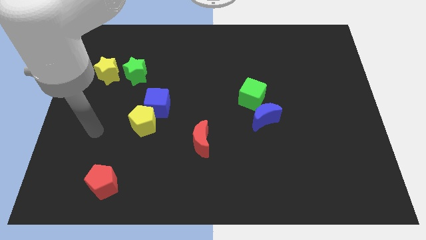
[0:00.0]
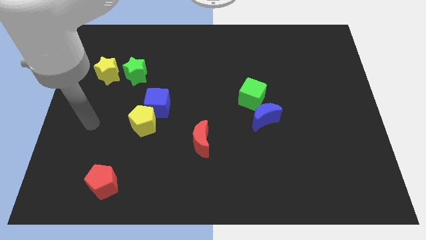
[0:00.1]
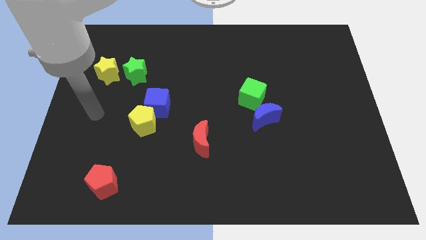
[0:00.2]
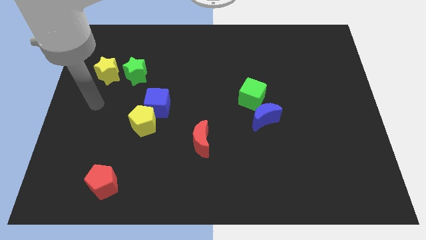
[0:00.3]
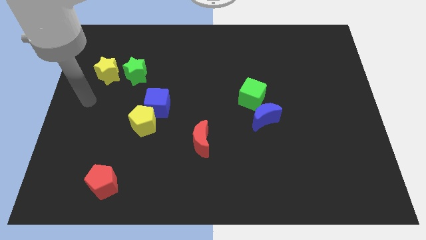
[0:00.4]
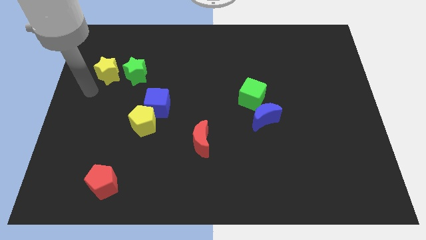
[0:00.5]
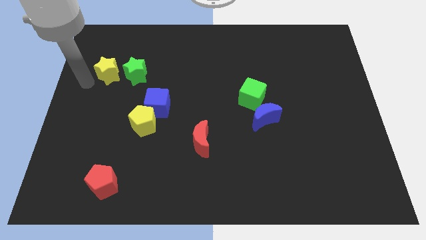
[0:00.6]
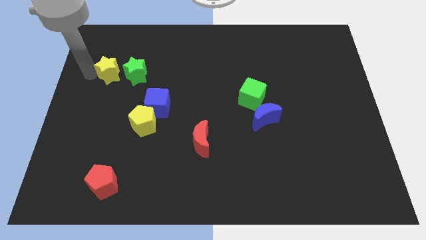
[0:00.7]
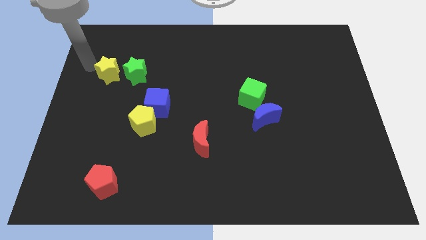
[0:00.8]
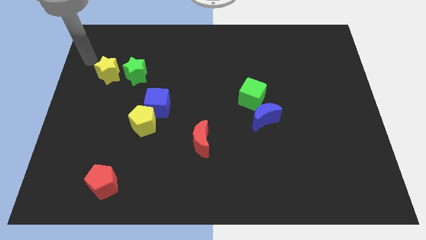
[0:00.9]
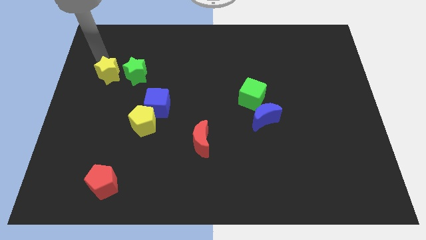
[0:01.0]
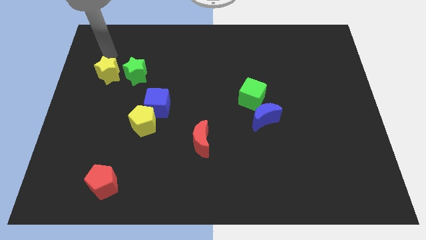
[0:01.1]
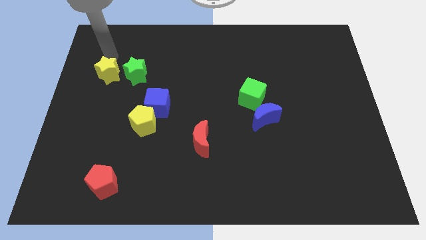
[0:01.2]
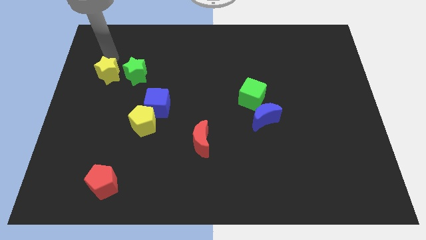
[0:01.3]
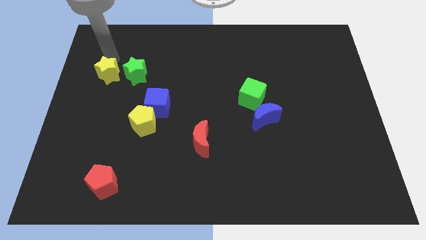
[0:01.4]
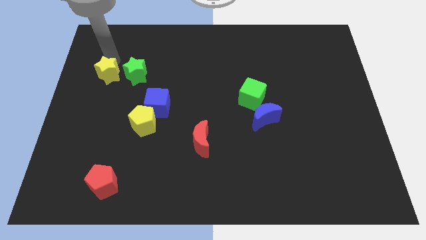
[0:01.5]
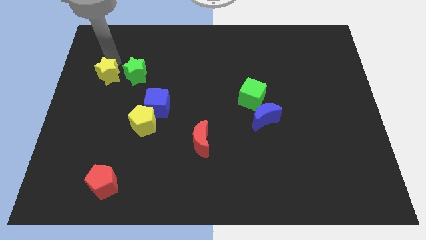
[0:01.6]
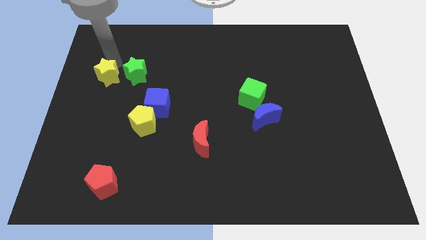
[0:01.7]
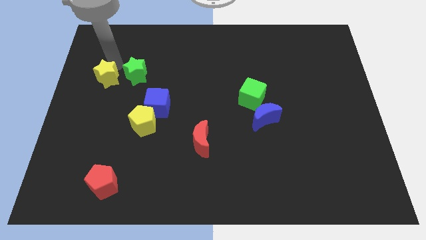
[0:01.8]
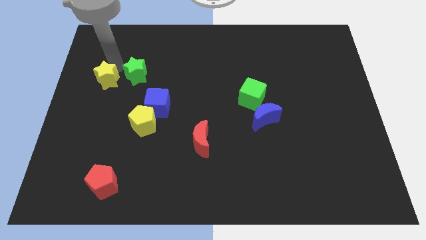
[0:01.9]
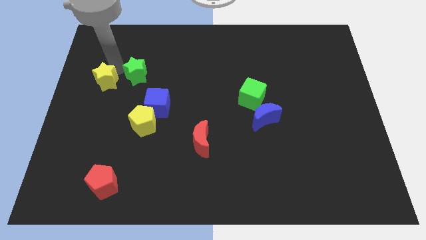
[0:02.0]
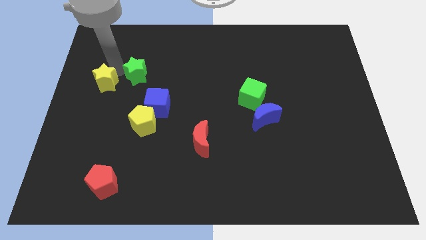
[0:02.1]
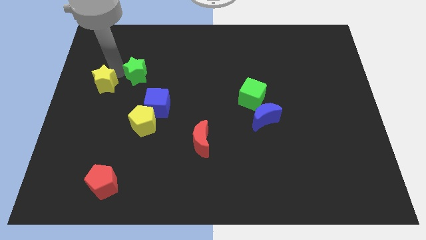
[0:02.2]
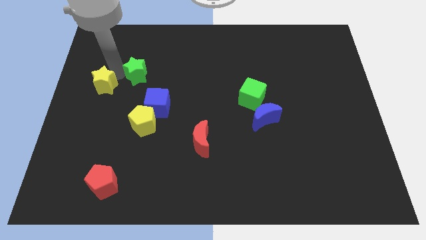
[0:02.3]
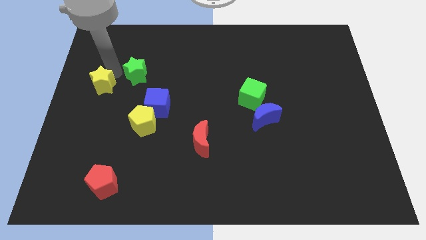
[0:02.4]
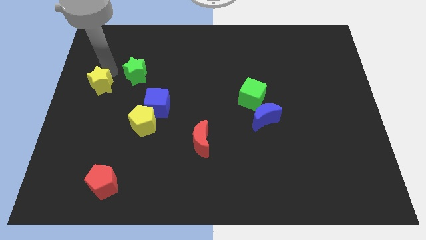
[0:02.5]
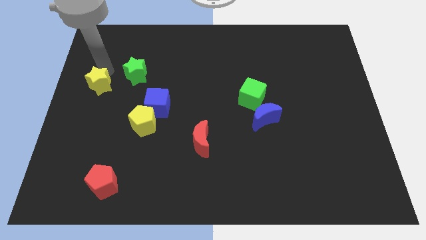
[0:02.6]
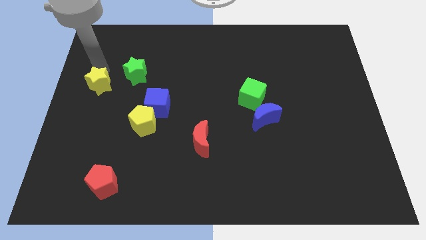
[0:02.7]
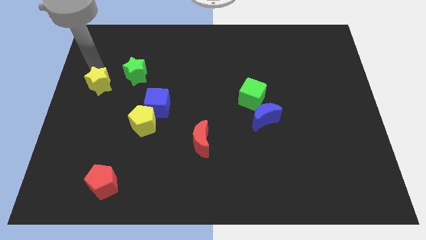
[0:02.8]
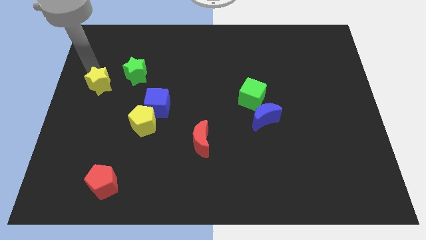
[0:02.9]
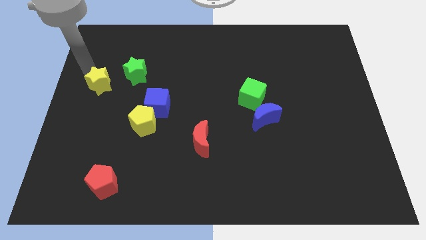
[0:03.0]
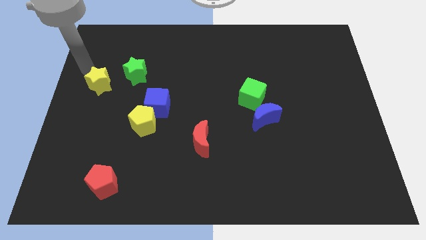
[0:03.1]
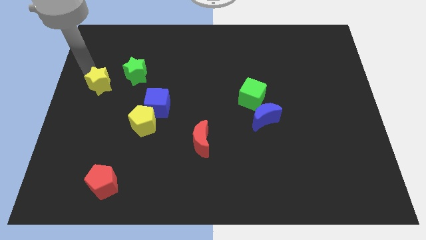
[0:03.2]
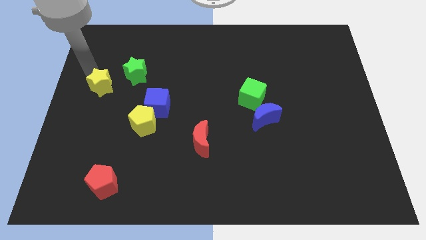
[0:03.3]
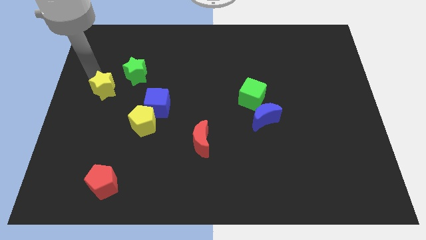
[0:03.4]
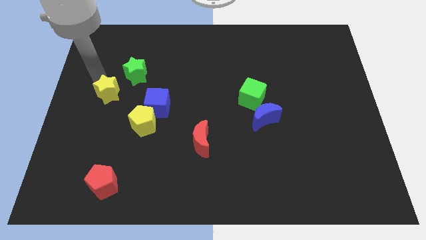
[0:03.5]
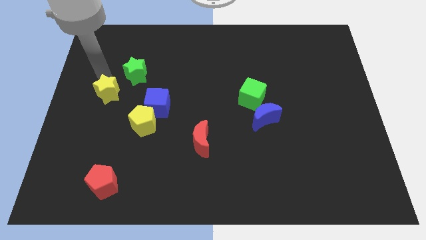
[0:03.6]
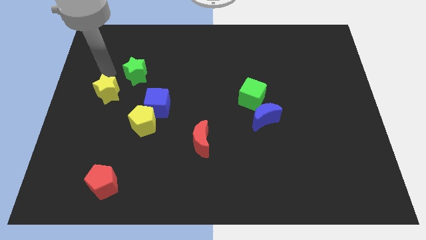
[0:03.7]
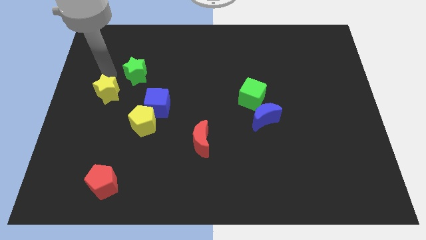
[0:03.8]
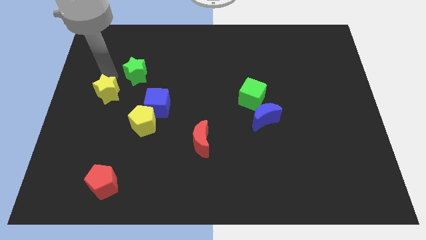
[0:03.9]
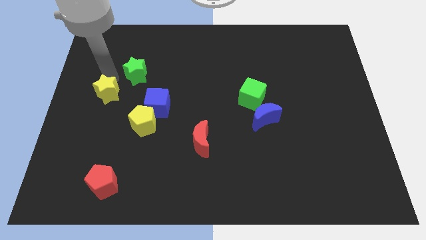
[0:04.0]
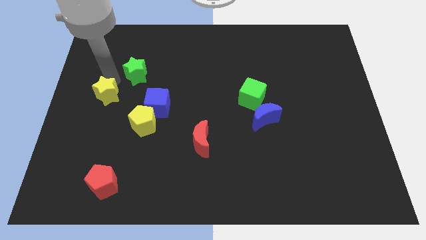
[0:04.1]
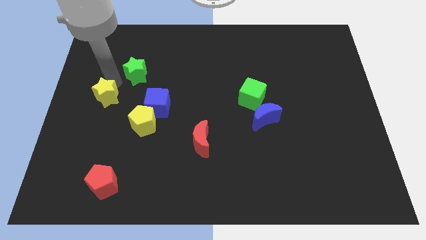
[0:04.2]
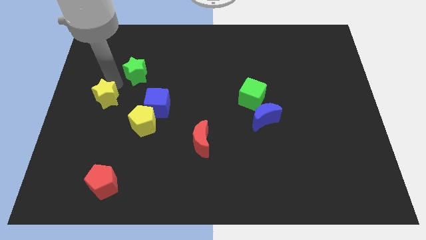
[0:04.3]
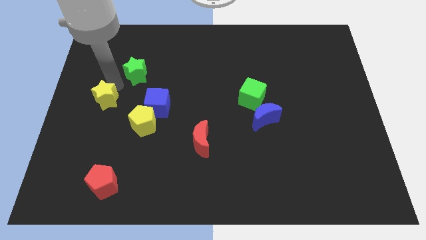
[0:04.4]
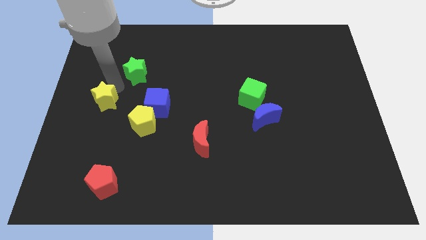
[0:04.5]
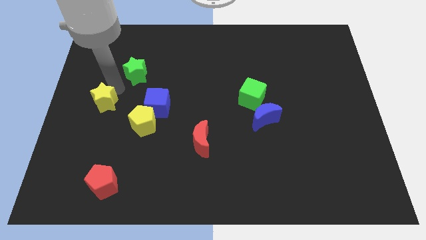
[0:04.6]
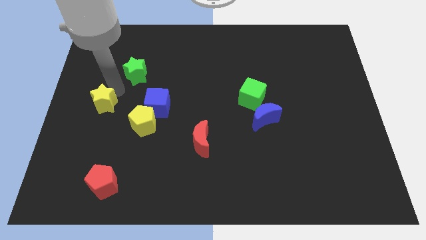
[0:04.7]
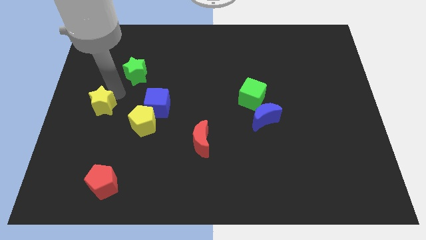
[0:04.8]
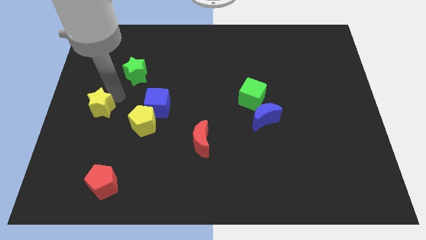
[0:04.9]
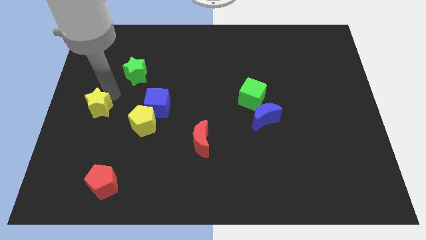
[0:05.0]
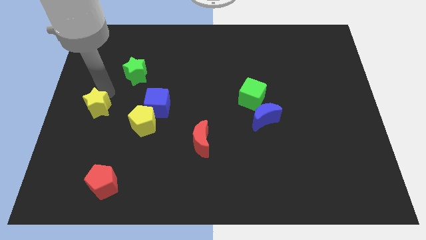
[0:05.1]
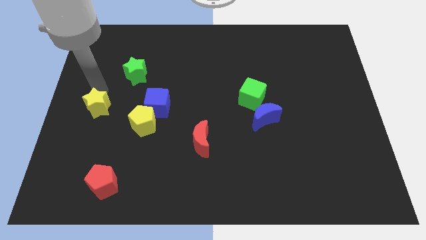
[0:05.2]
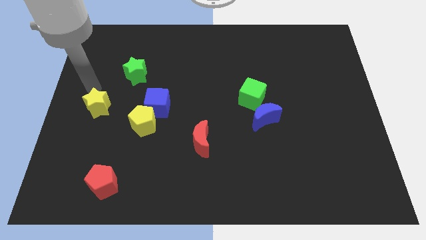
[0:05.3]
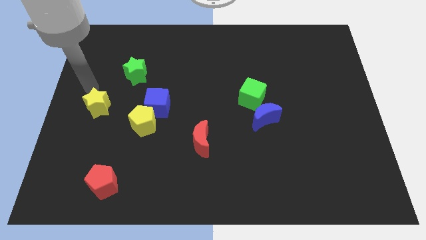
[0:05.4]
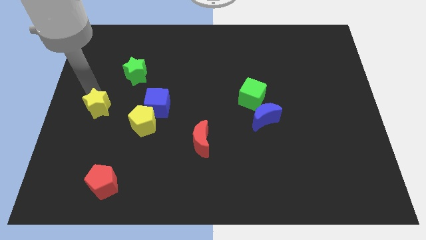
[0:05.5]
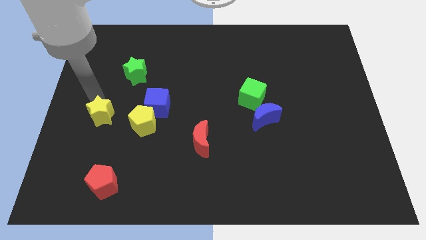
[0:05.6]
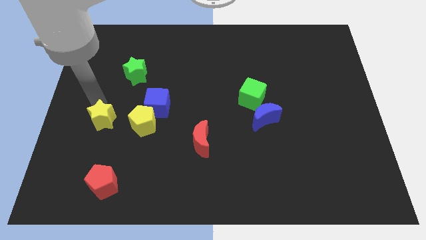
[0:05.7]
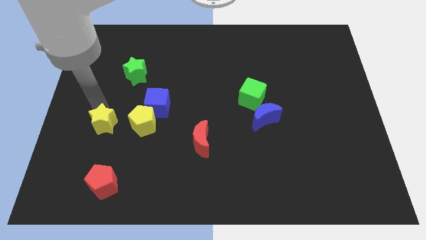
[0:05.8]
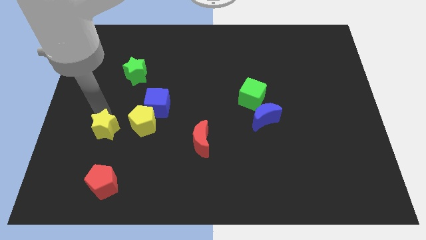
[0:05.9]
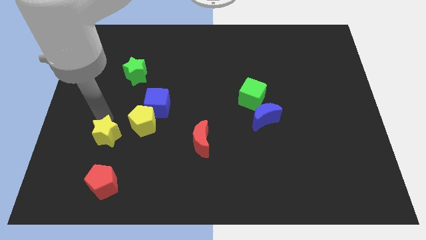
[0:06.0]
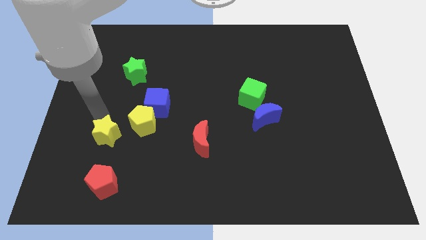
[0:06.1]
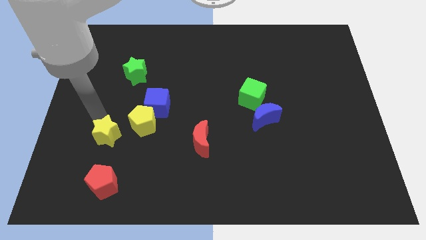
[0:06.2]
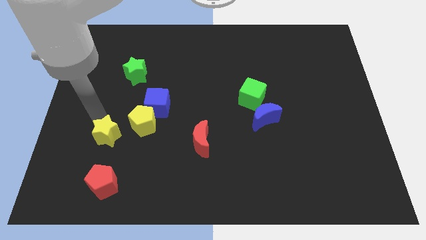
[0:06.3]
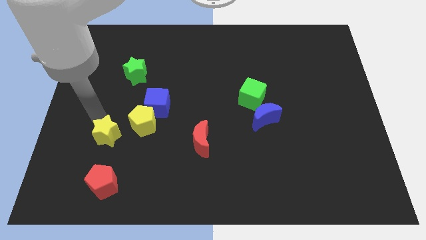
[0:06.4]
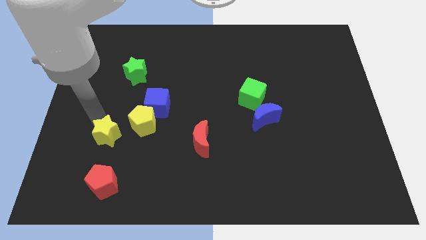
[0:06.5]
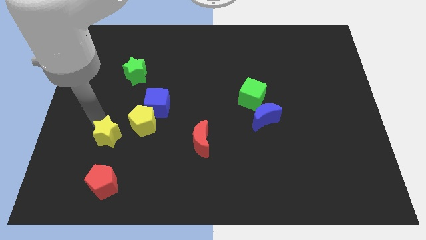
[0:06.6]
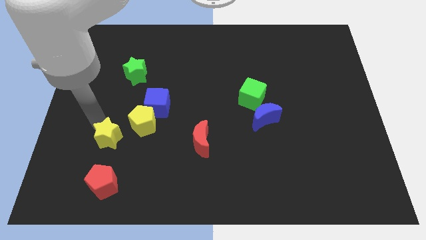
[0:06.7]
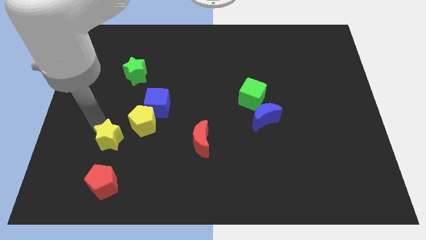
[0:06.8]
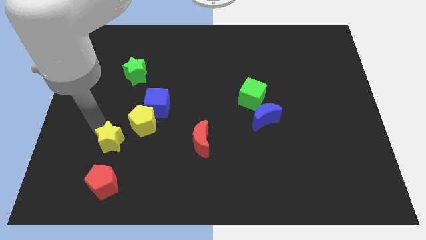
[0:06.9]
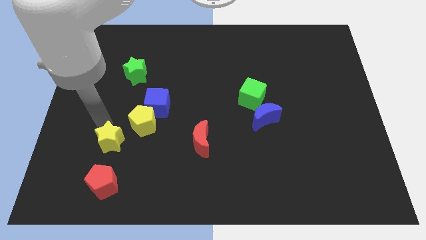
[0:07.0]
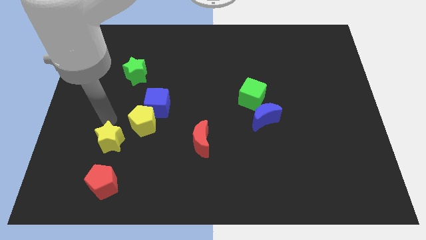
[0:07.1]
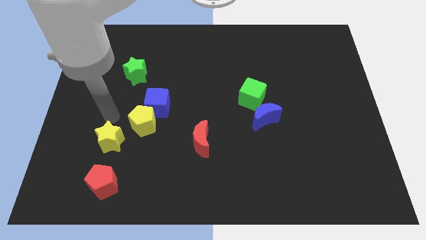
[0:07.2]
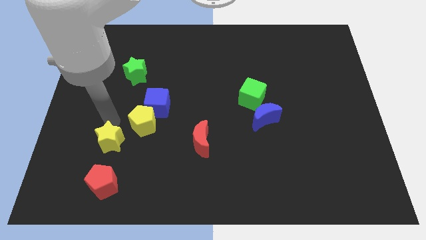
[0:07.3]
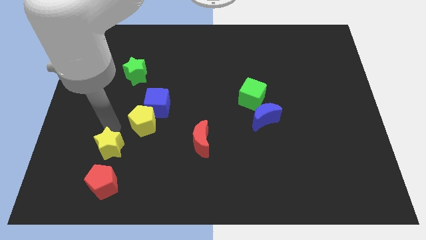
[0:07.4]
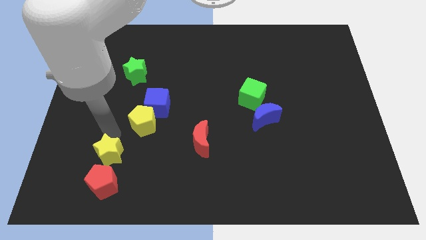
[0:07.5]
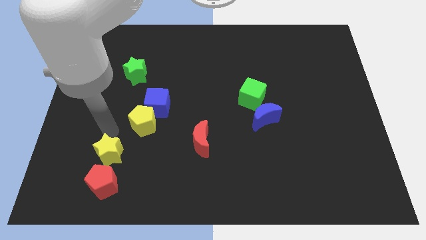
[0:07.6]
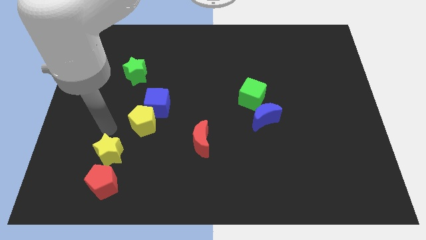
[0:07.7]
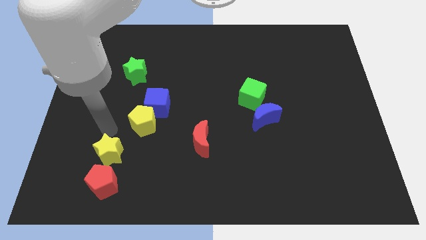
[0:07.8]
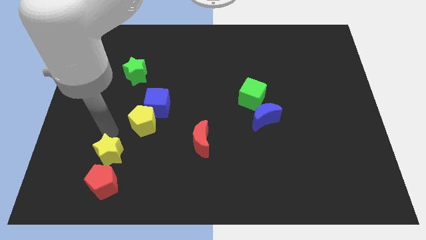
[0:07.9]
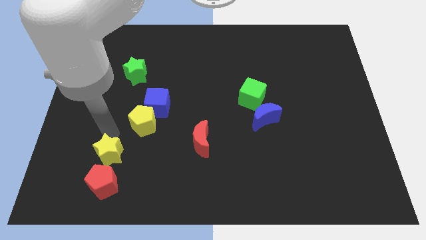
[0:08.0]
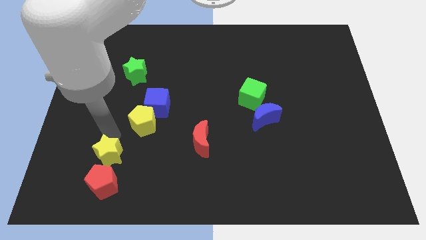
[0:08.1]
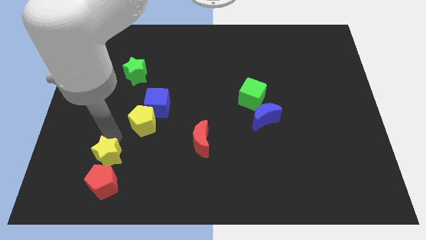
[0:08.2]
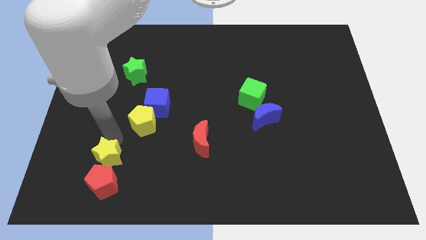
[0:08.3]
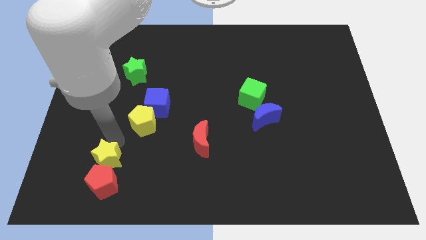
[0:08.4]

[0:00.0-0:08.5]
slide the yellow star to the red pentagon
